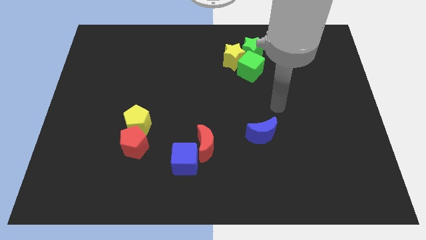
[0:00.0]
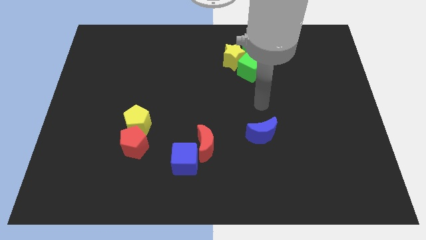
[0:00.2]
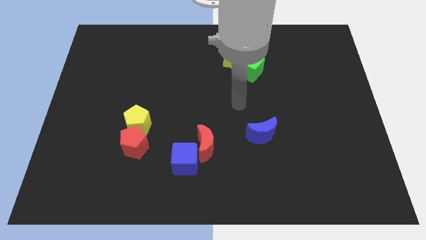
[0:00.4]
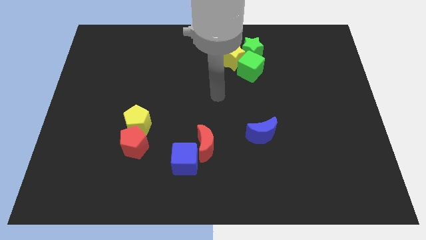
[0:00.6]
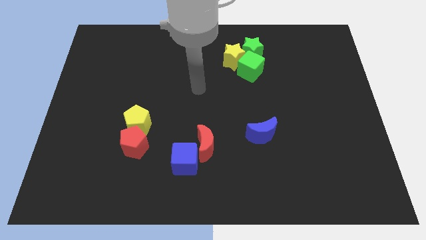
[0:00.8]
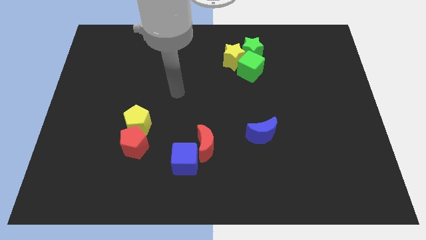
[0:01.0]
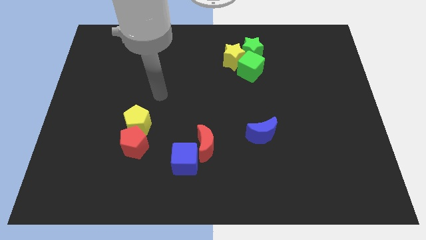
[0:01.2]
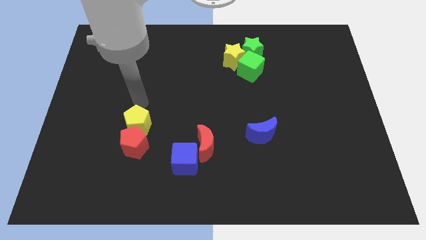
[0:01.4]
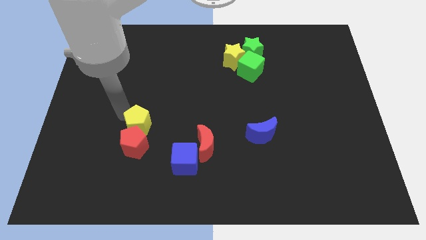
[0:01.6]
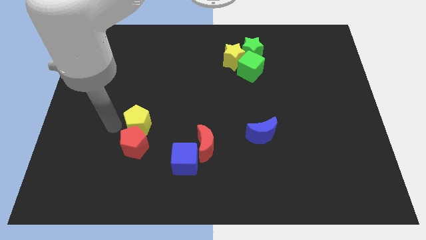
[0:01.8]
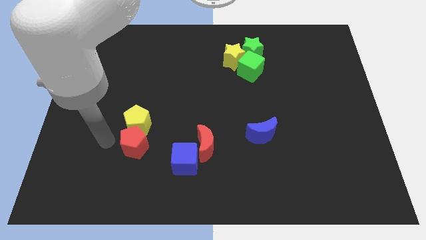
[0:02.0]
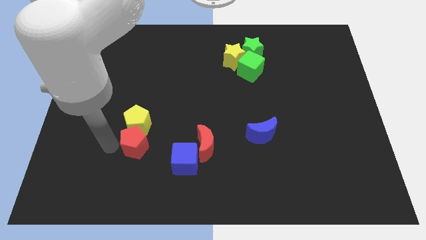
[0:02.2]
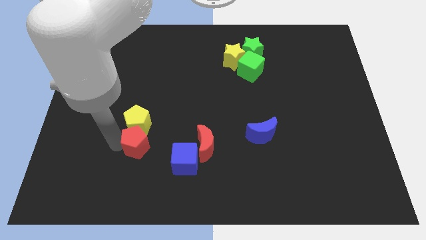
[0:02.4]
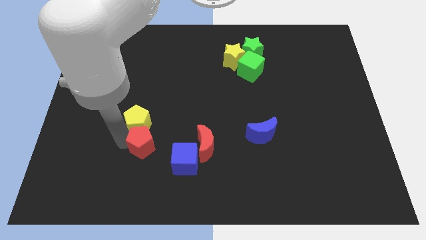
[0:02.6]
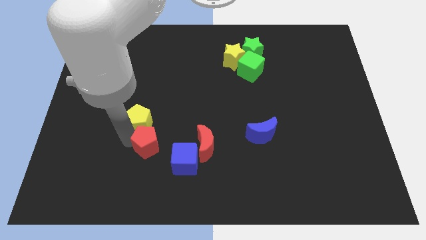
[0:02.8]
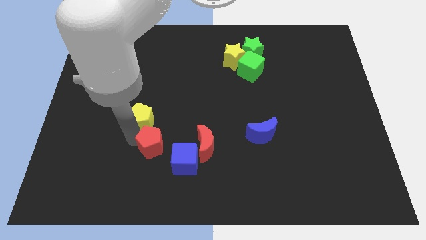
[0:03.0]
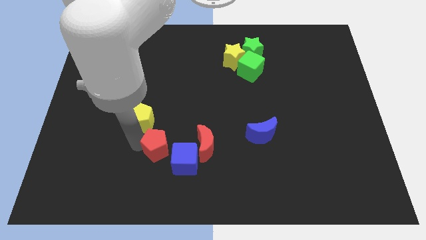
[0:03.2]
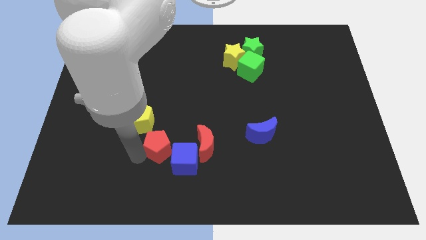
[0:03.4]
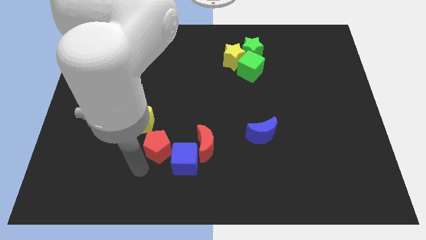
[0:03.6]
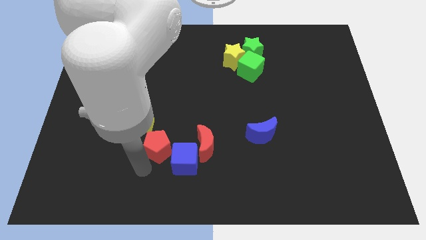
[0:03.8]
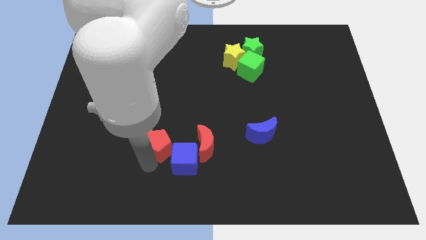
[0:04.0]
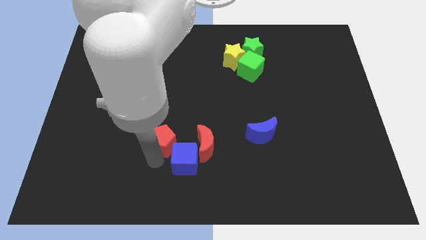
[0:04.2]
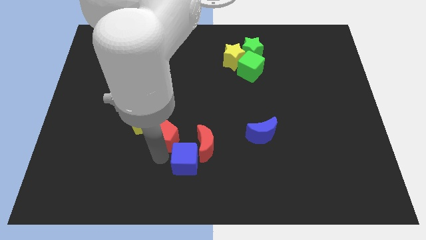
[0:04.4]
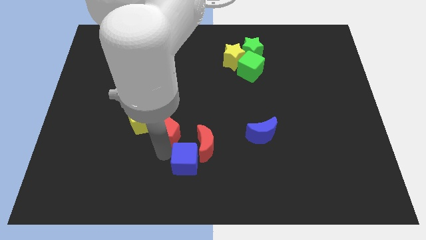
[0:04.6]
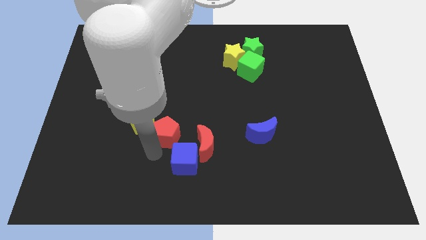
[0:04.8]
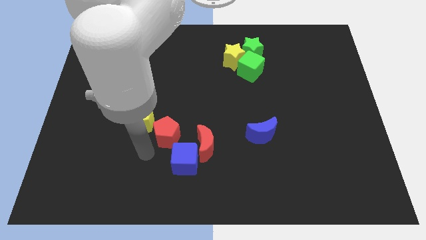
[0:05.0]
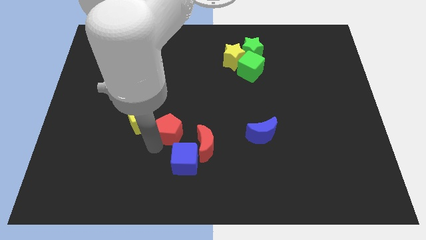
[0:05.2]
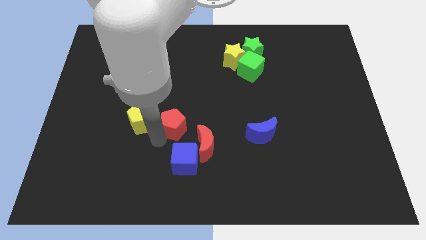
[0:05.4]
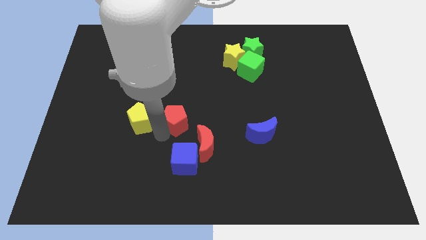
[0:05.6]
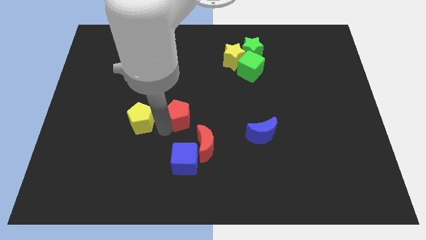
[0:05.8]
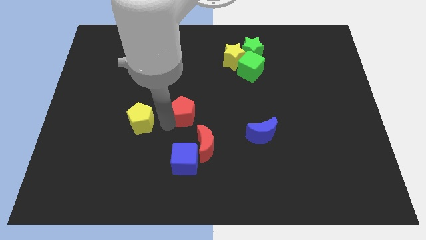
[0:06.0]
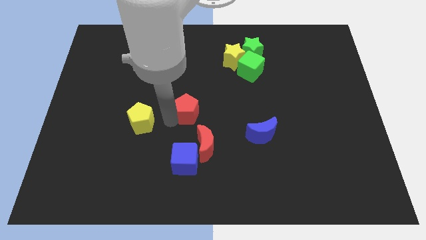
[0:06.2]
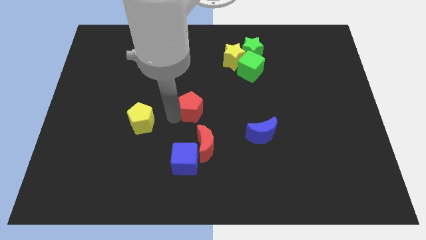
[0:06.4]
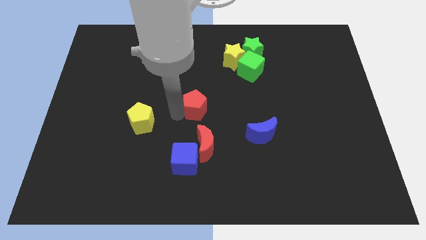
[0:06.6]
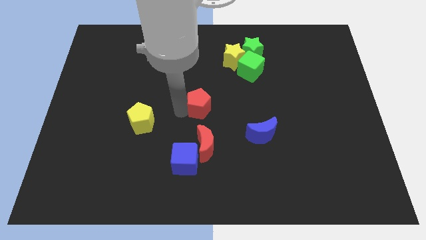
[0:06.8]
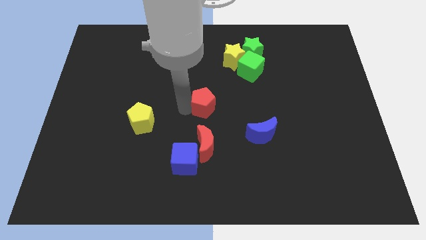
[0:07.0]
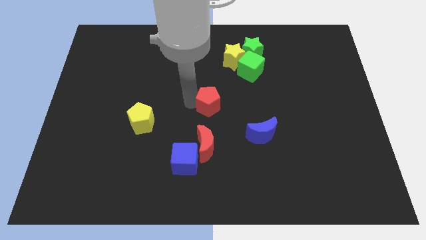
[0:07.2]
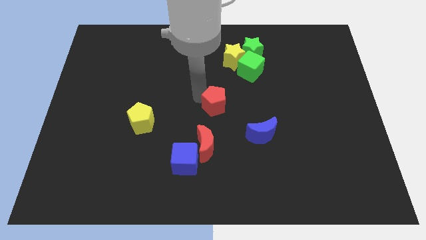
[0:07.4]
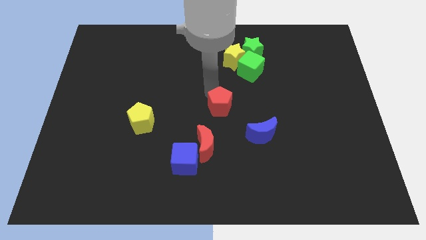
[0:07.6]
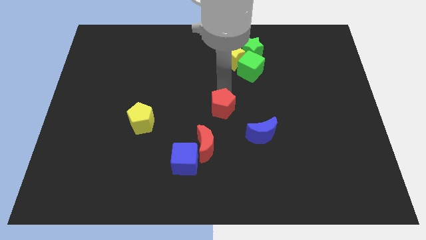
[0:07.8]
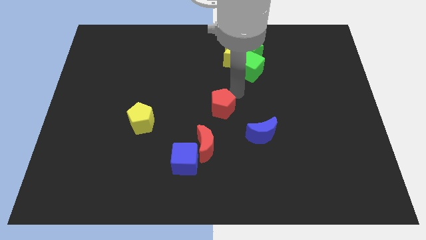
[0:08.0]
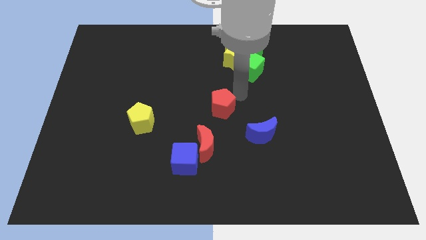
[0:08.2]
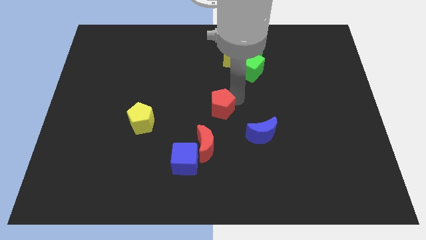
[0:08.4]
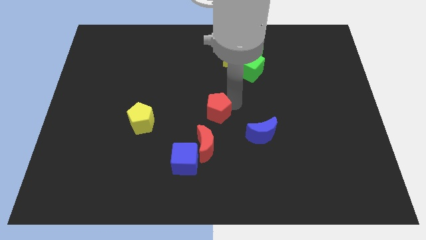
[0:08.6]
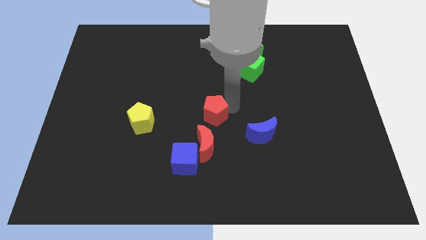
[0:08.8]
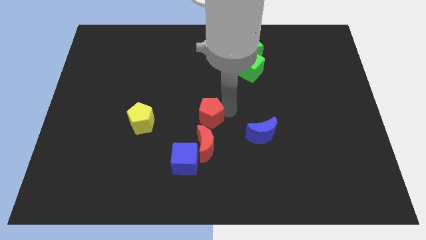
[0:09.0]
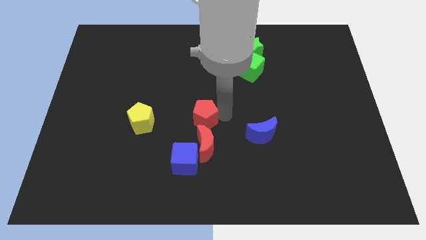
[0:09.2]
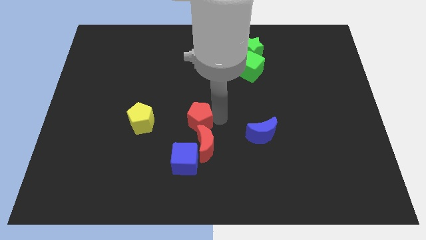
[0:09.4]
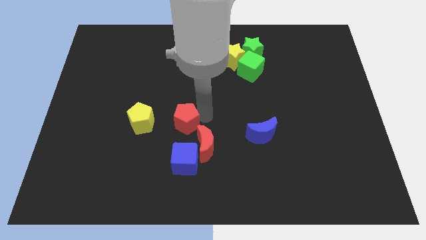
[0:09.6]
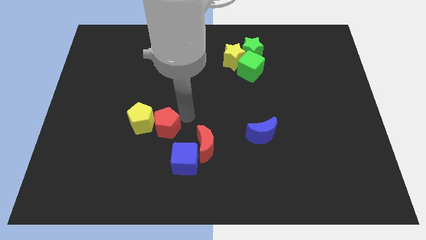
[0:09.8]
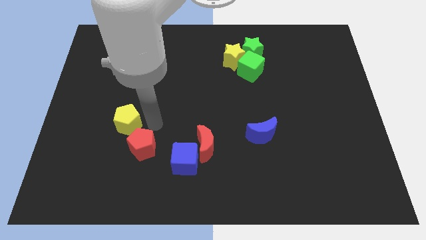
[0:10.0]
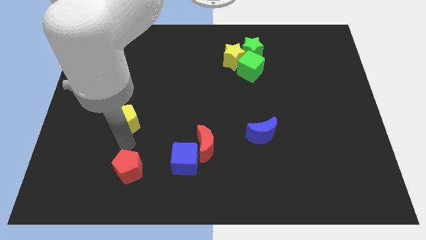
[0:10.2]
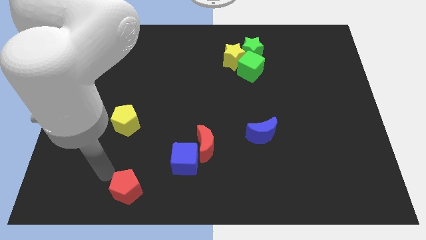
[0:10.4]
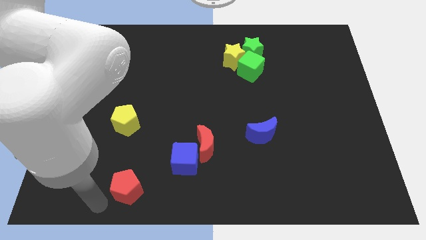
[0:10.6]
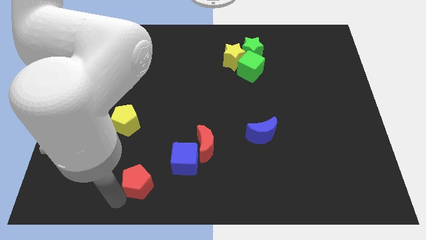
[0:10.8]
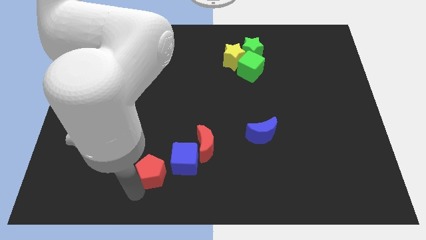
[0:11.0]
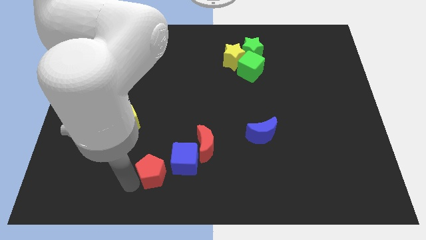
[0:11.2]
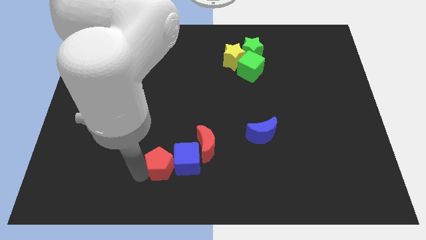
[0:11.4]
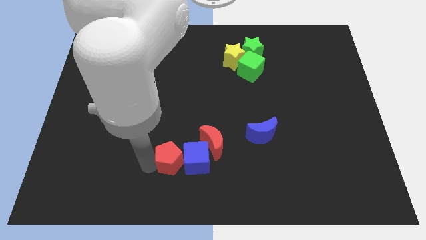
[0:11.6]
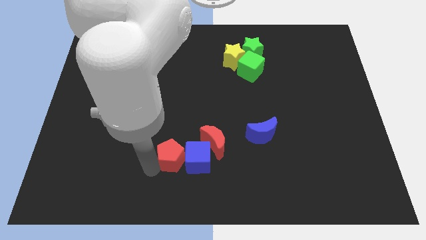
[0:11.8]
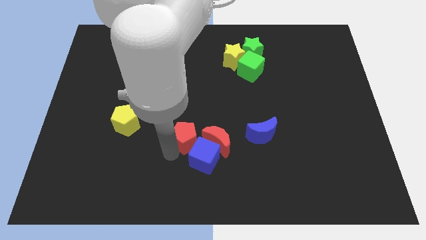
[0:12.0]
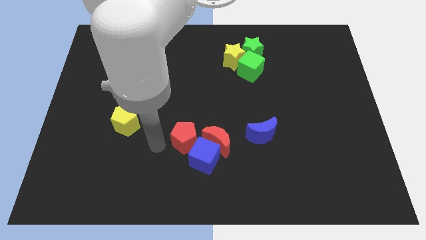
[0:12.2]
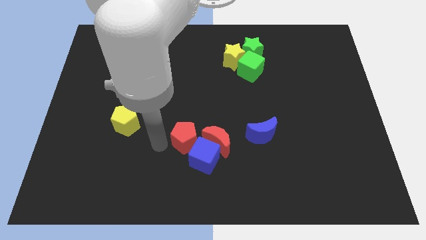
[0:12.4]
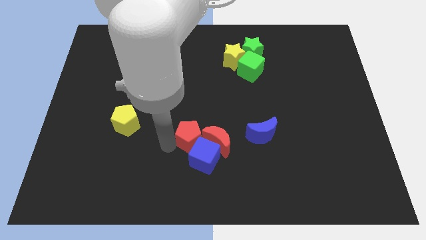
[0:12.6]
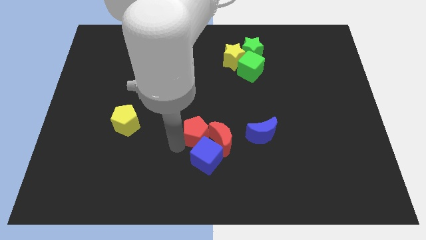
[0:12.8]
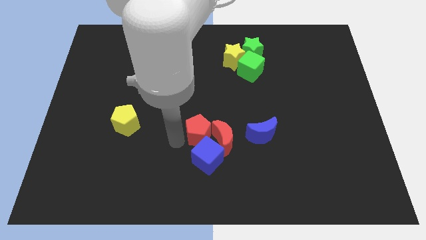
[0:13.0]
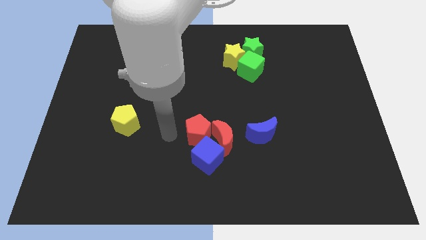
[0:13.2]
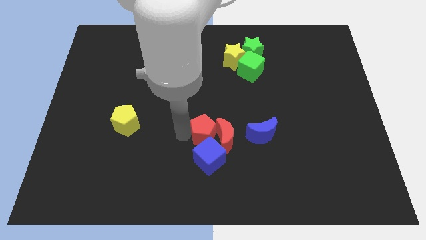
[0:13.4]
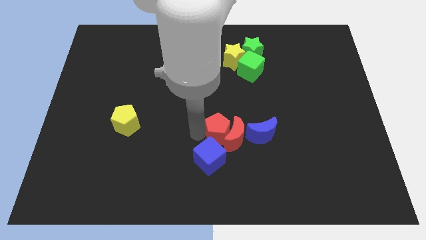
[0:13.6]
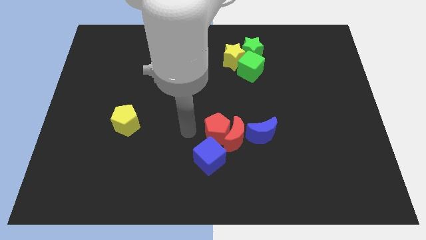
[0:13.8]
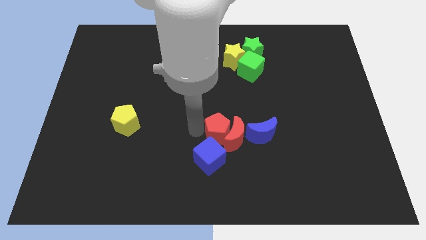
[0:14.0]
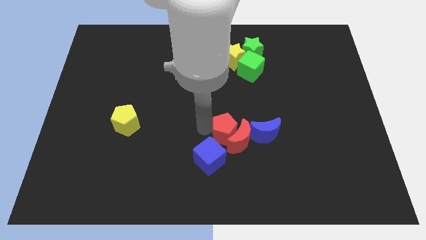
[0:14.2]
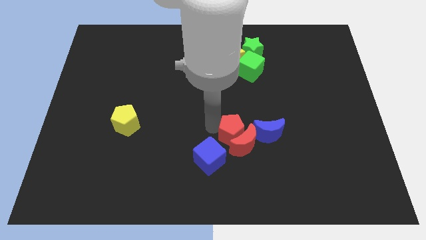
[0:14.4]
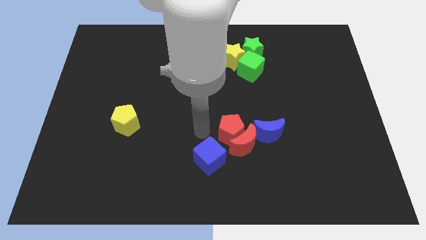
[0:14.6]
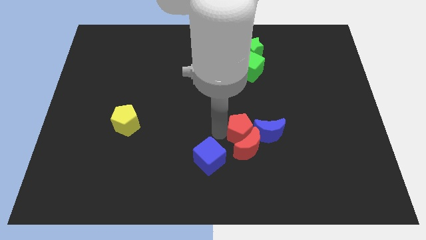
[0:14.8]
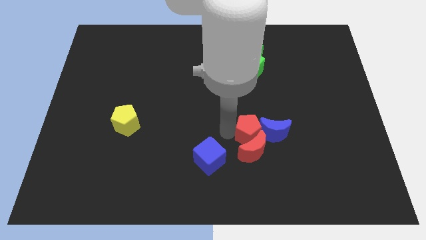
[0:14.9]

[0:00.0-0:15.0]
push the red pentagon close to the blue moon
